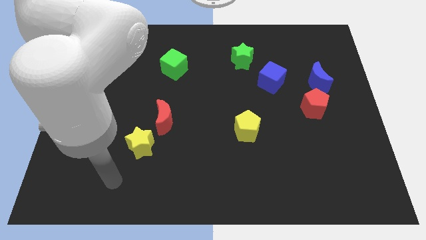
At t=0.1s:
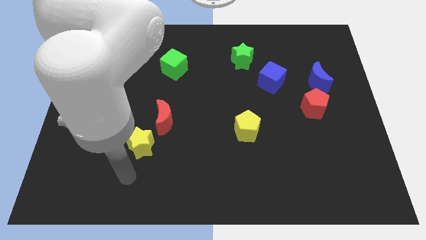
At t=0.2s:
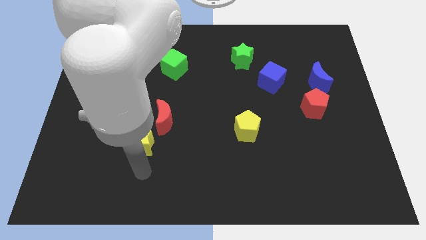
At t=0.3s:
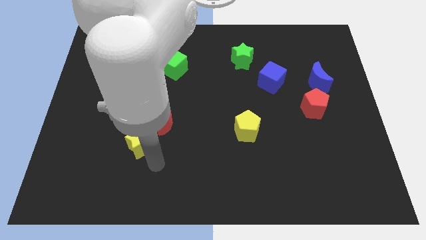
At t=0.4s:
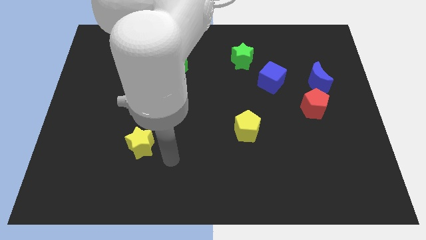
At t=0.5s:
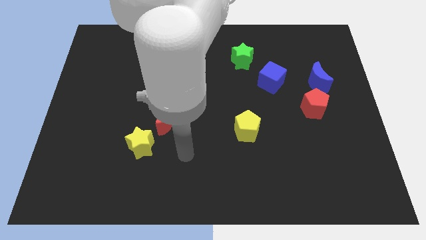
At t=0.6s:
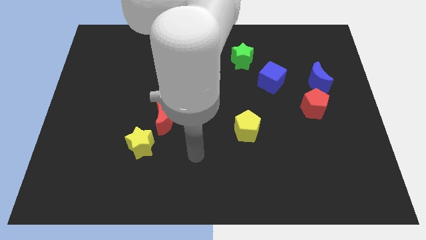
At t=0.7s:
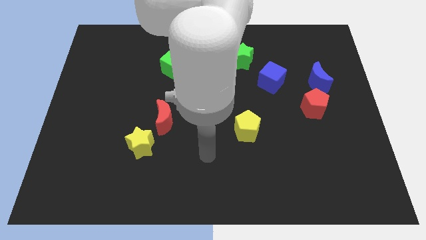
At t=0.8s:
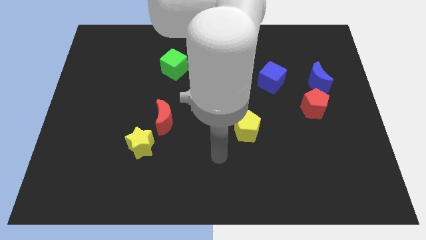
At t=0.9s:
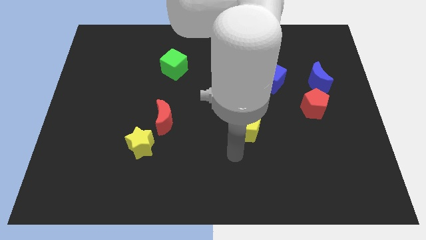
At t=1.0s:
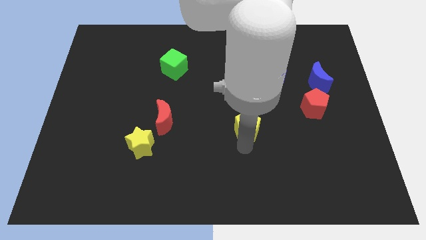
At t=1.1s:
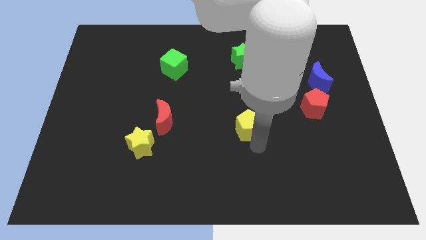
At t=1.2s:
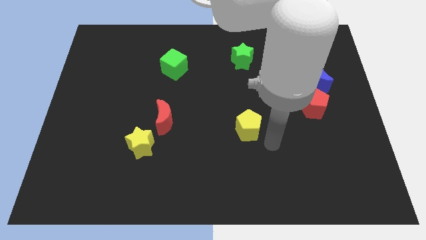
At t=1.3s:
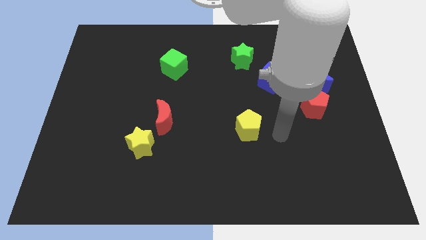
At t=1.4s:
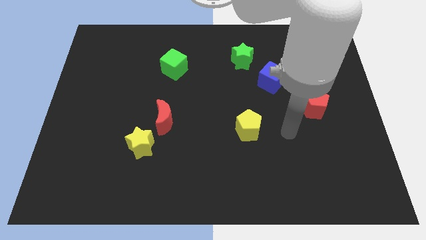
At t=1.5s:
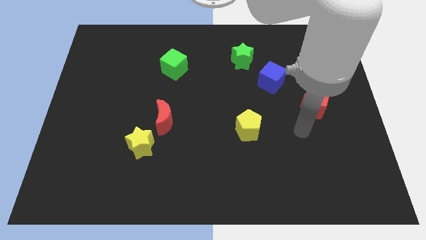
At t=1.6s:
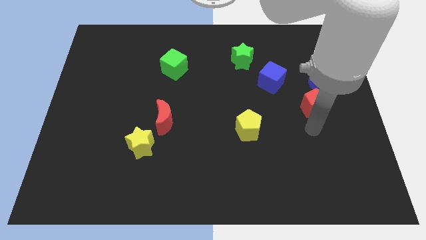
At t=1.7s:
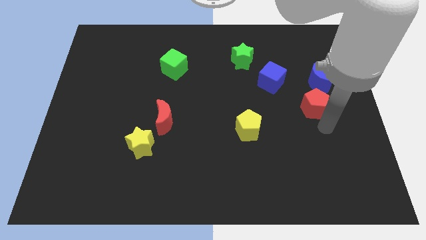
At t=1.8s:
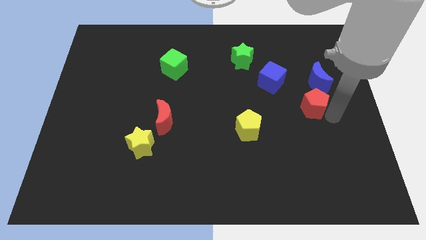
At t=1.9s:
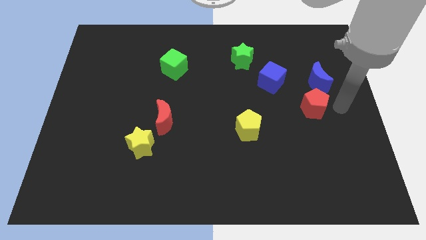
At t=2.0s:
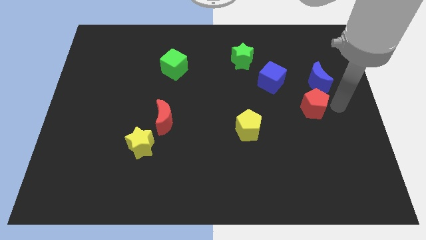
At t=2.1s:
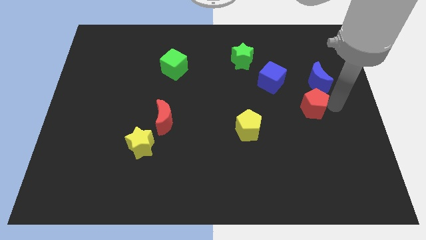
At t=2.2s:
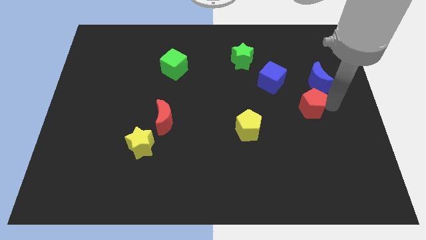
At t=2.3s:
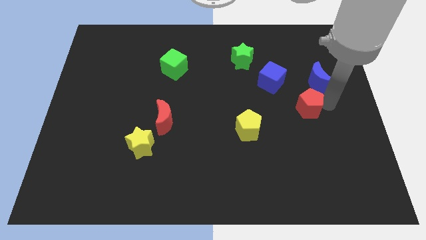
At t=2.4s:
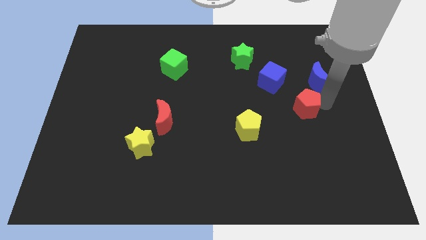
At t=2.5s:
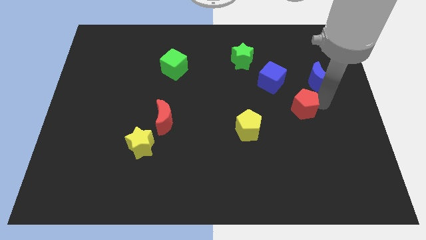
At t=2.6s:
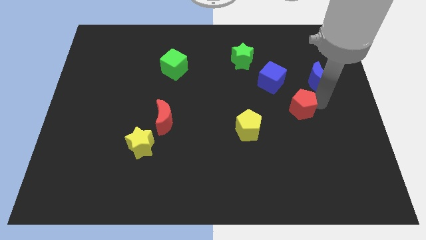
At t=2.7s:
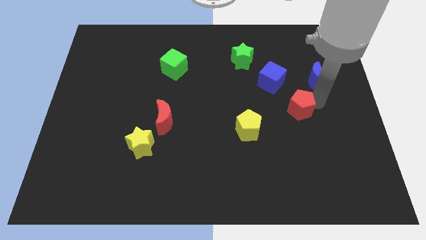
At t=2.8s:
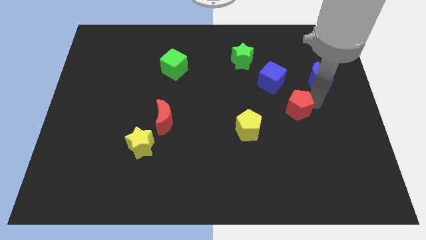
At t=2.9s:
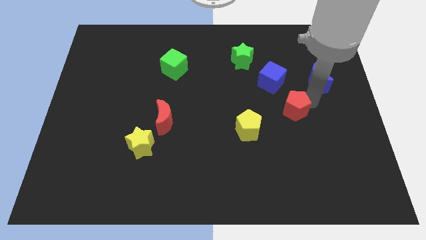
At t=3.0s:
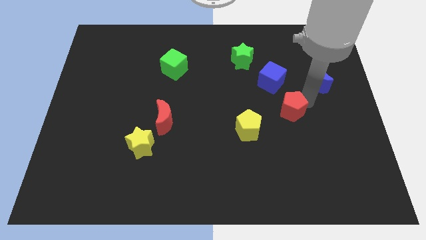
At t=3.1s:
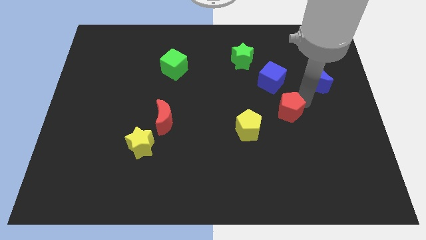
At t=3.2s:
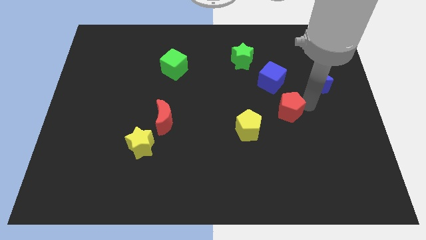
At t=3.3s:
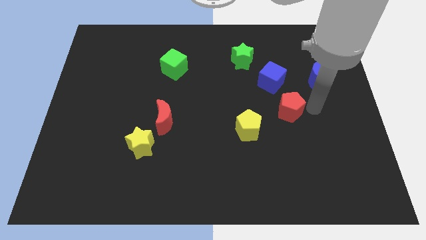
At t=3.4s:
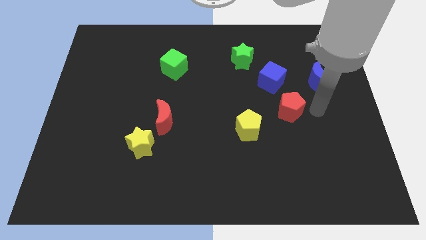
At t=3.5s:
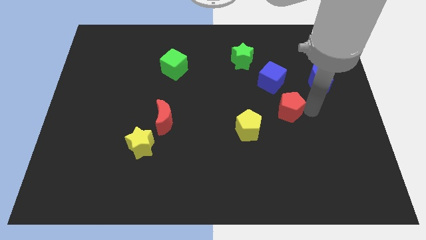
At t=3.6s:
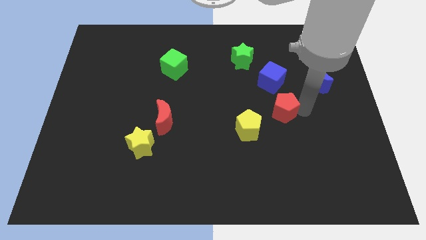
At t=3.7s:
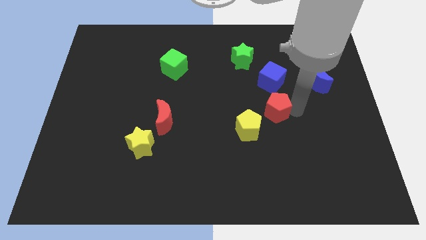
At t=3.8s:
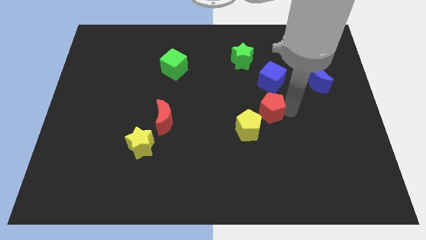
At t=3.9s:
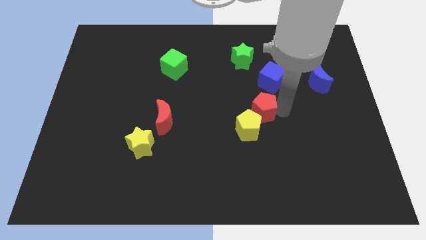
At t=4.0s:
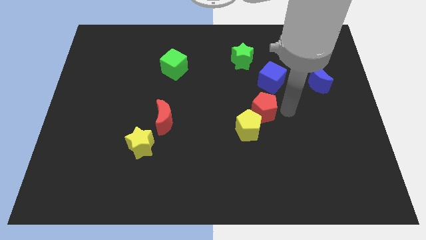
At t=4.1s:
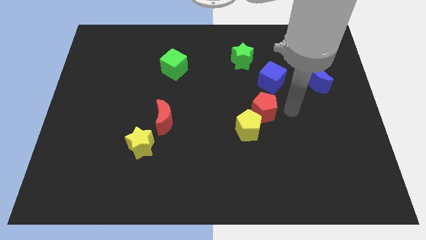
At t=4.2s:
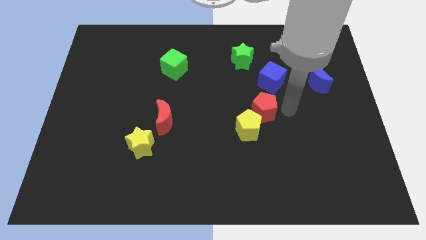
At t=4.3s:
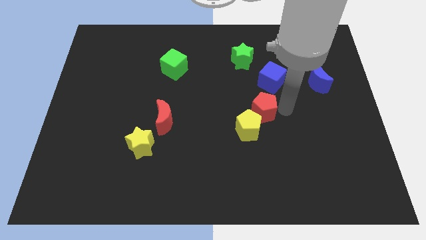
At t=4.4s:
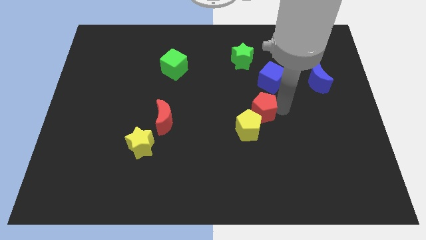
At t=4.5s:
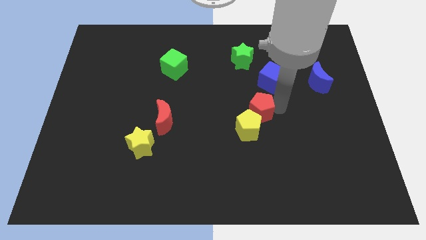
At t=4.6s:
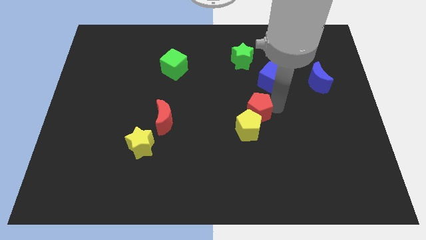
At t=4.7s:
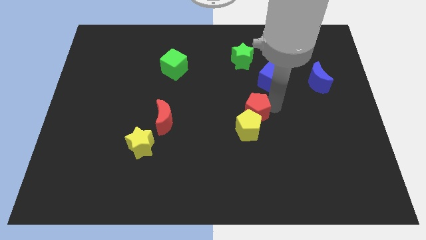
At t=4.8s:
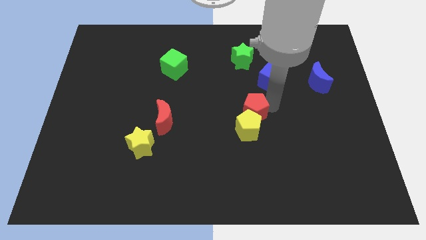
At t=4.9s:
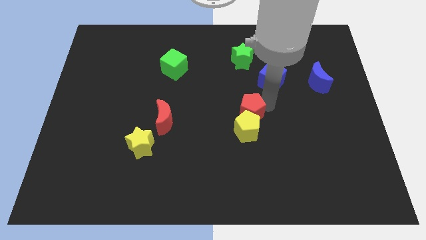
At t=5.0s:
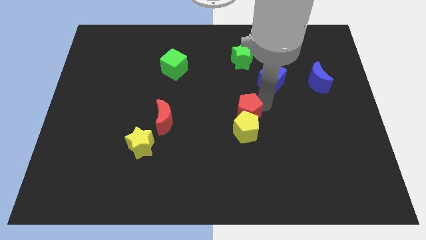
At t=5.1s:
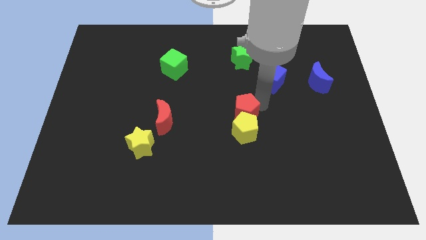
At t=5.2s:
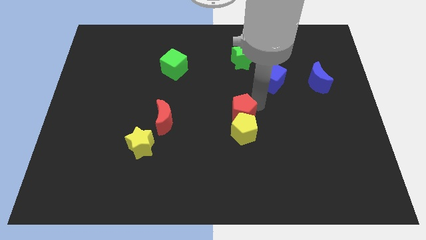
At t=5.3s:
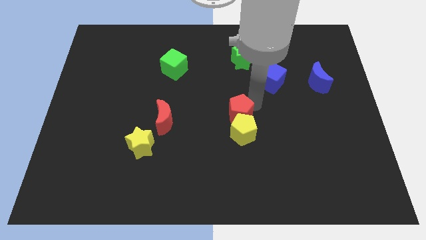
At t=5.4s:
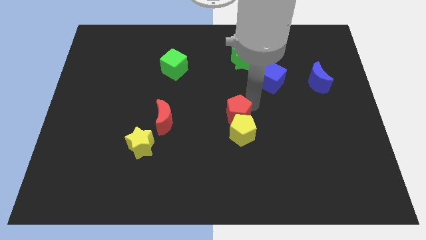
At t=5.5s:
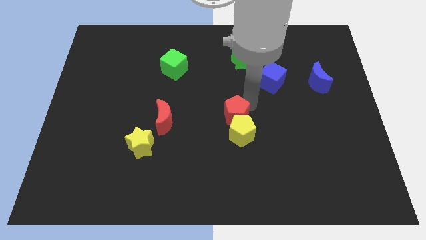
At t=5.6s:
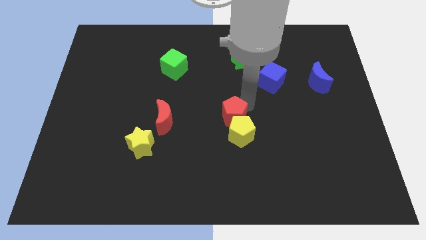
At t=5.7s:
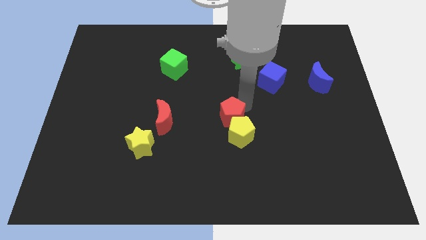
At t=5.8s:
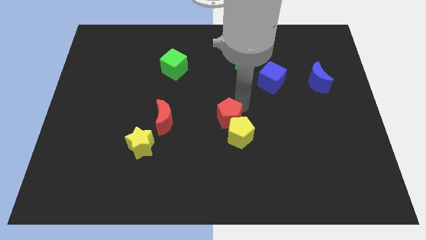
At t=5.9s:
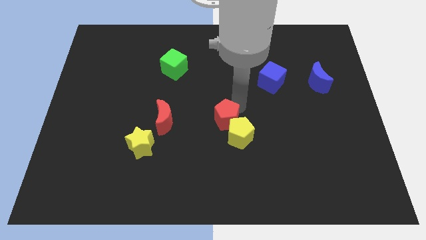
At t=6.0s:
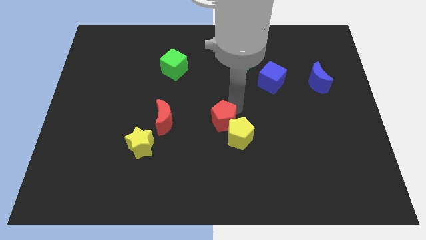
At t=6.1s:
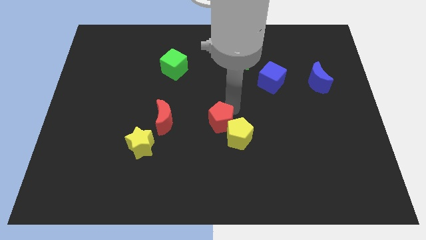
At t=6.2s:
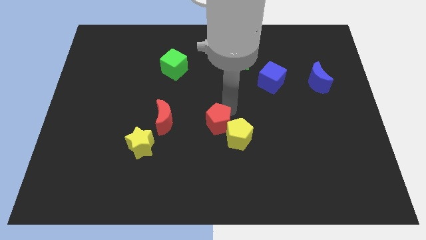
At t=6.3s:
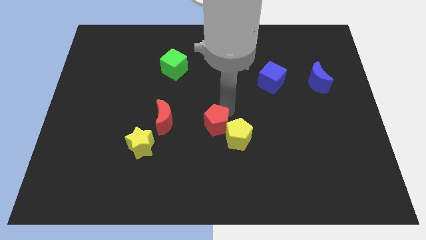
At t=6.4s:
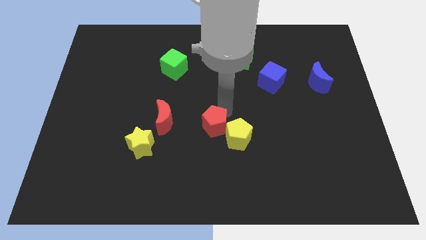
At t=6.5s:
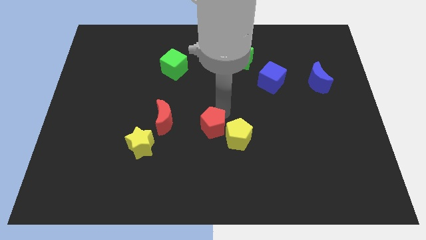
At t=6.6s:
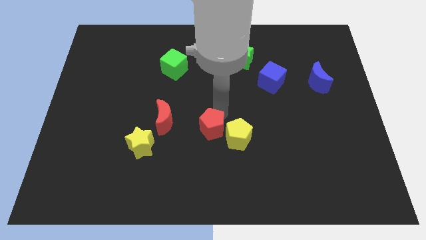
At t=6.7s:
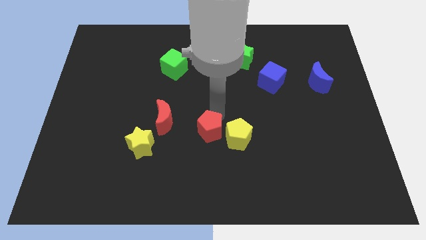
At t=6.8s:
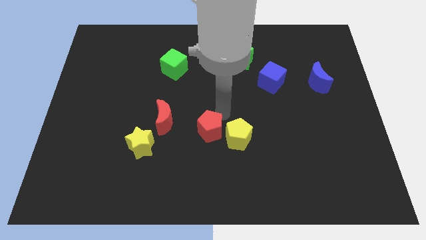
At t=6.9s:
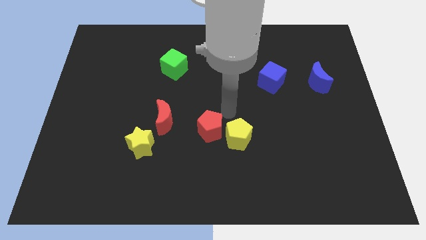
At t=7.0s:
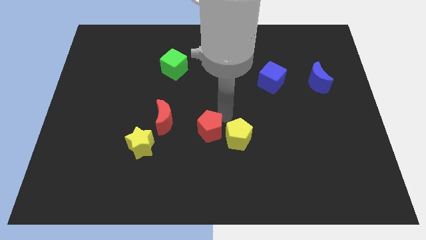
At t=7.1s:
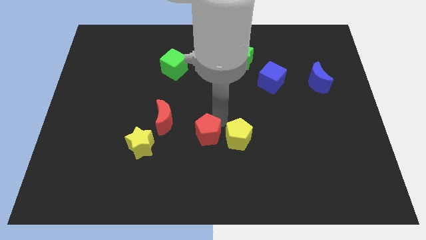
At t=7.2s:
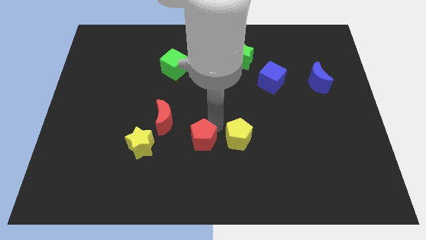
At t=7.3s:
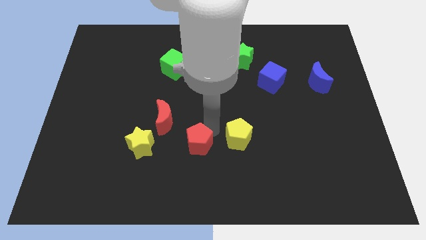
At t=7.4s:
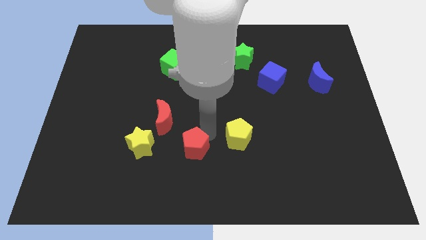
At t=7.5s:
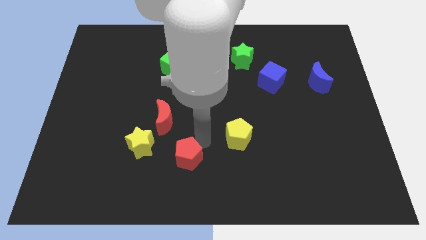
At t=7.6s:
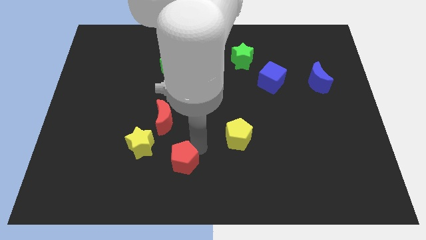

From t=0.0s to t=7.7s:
put the red pentagon to the bottom side of the red moon
